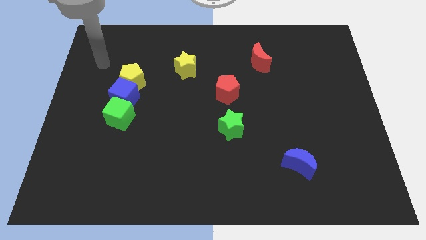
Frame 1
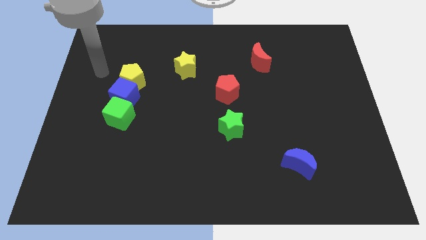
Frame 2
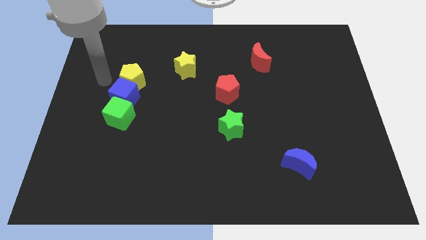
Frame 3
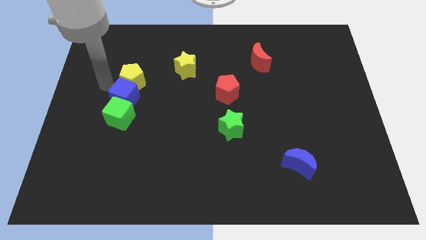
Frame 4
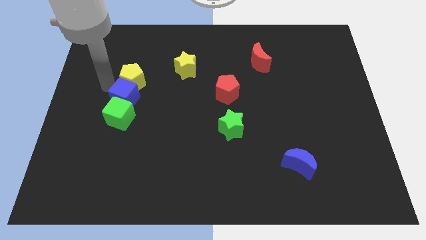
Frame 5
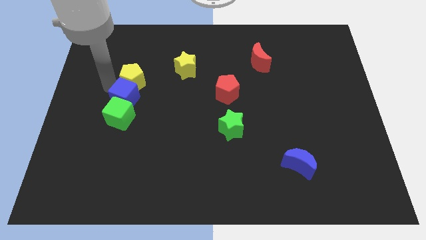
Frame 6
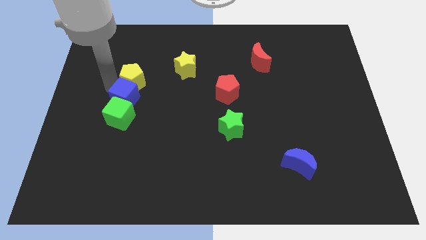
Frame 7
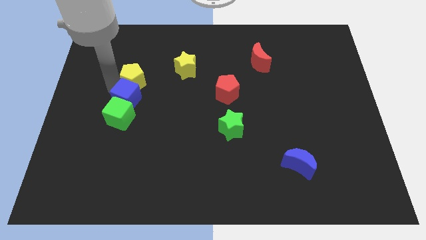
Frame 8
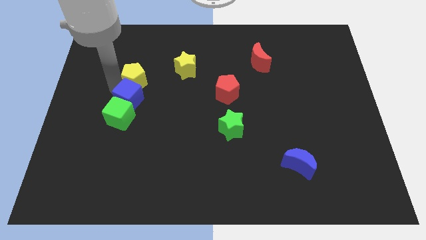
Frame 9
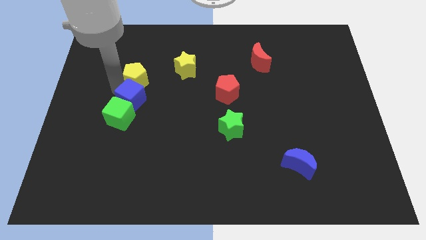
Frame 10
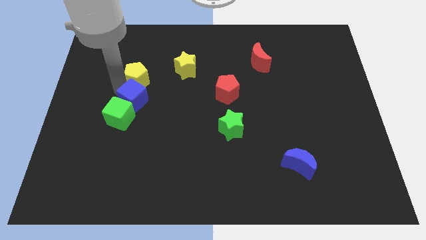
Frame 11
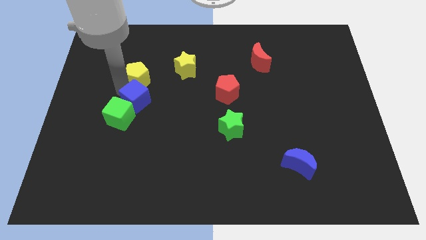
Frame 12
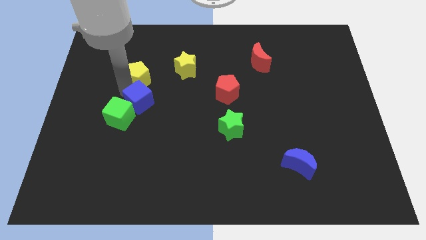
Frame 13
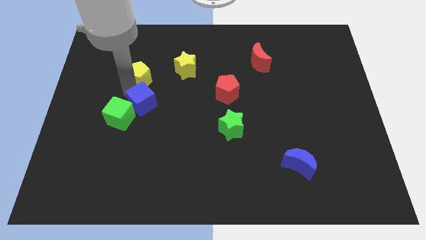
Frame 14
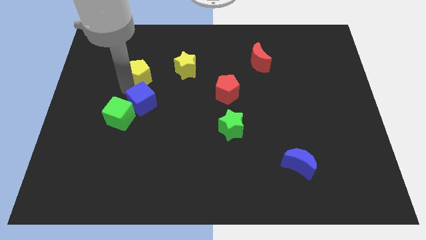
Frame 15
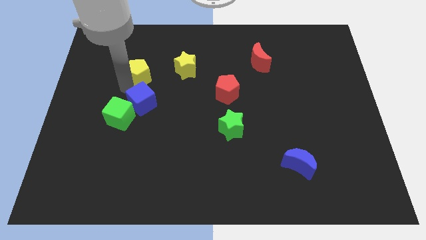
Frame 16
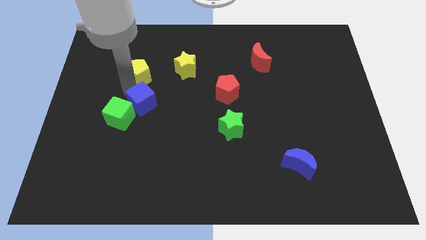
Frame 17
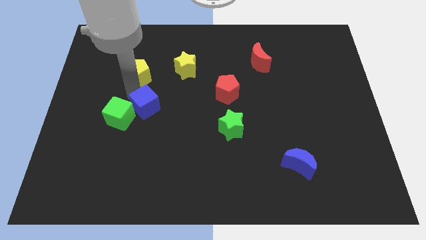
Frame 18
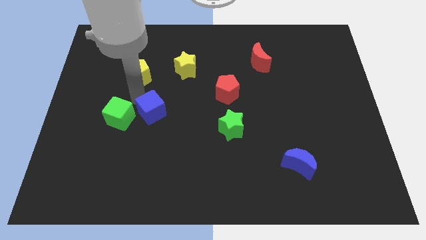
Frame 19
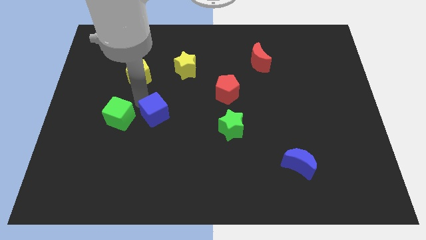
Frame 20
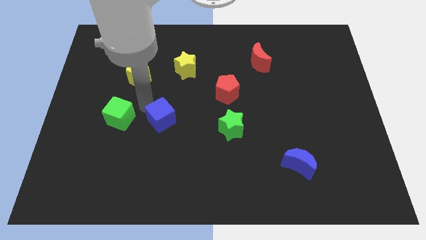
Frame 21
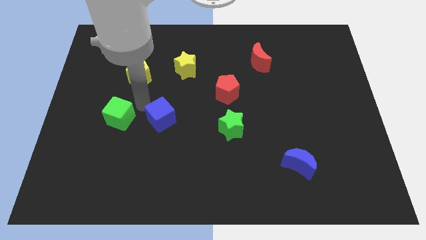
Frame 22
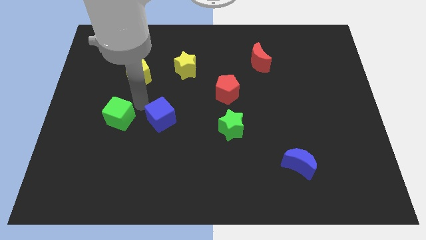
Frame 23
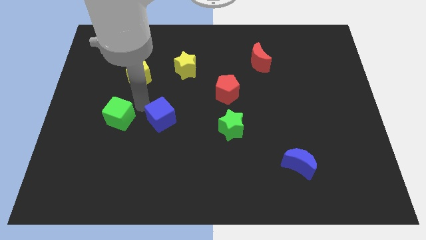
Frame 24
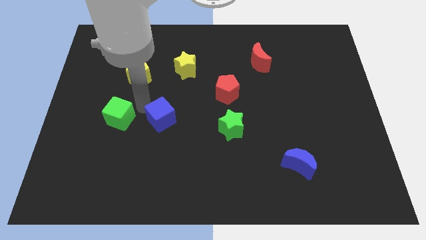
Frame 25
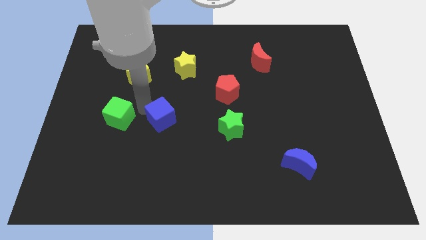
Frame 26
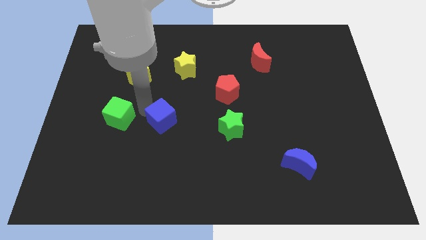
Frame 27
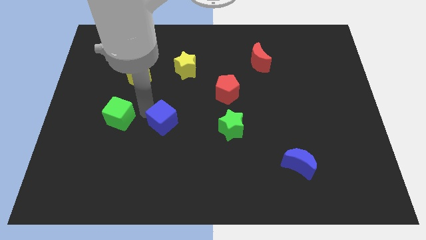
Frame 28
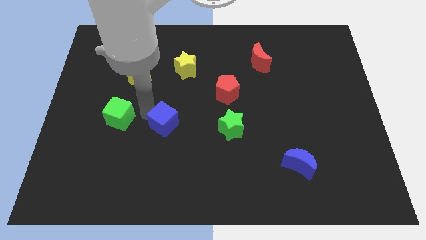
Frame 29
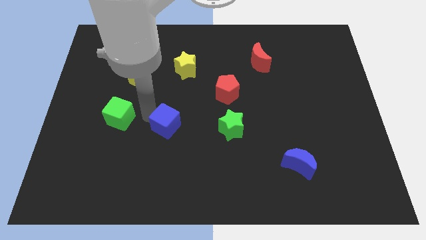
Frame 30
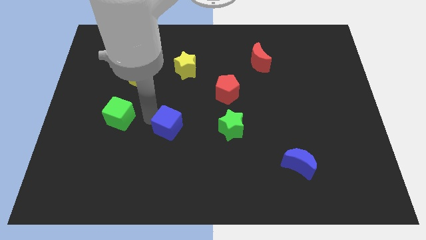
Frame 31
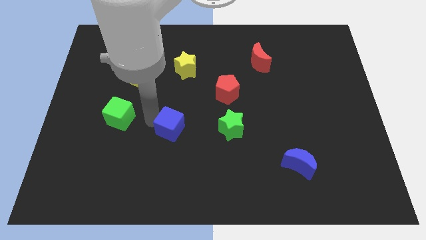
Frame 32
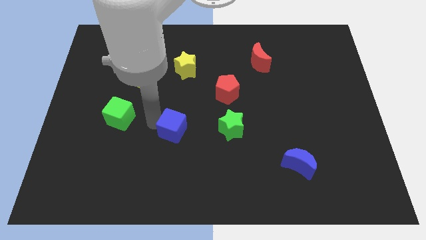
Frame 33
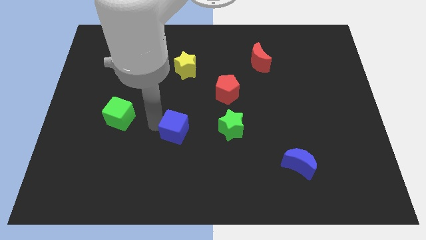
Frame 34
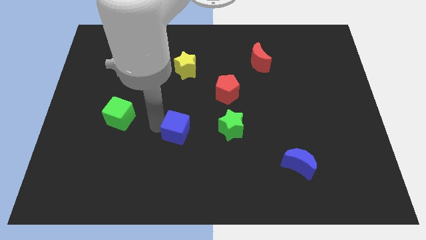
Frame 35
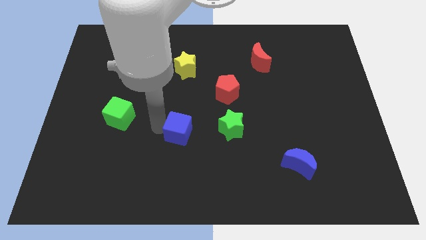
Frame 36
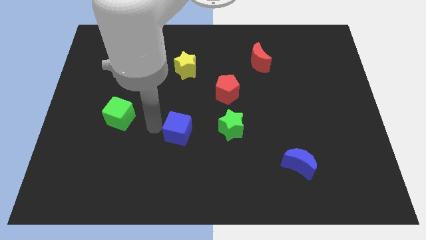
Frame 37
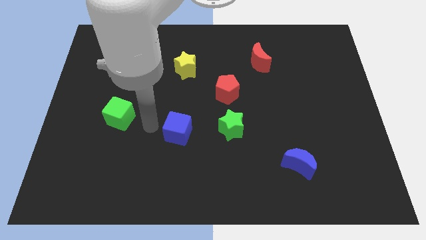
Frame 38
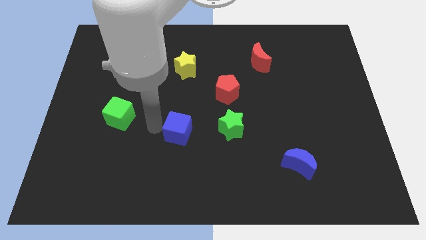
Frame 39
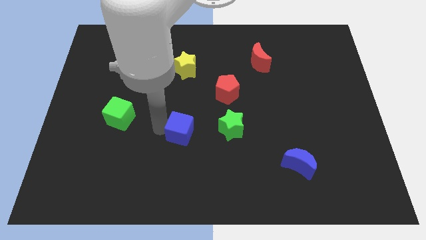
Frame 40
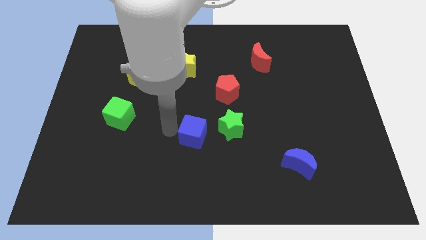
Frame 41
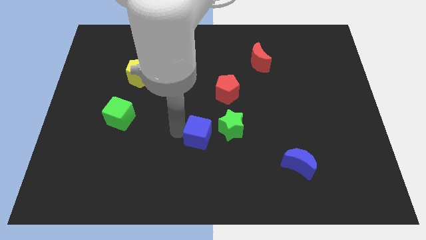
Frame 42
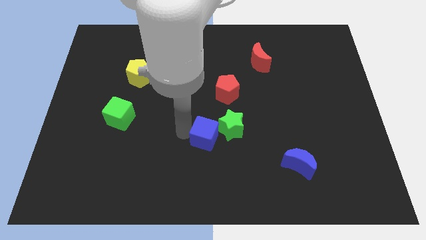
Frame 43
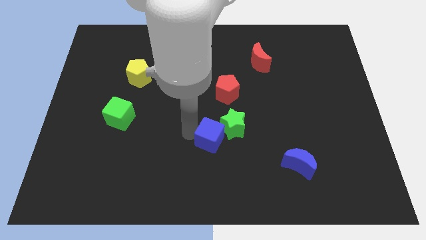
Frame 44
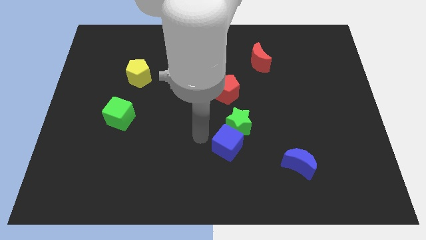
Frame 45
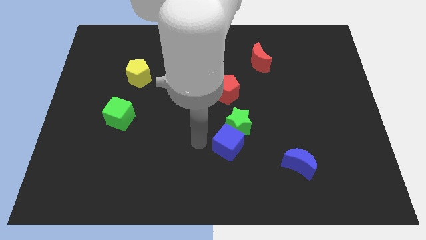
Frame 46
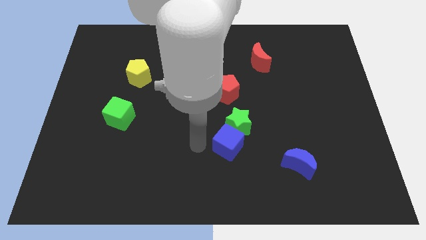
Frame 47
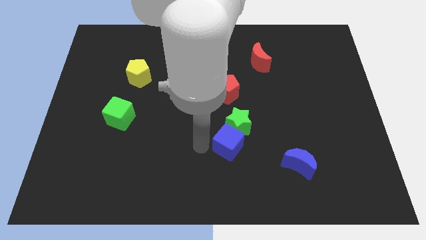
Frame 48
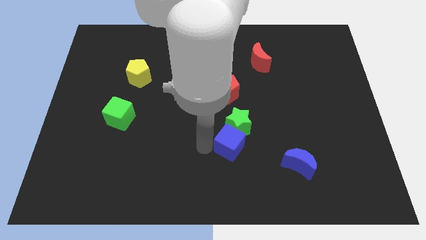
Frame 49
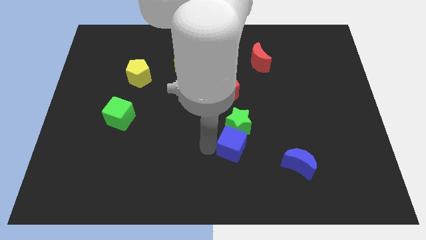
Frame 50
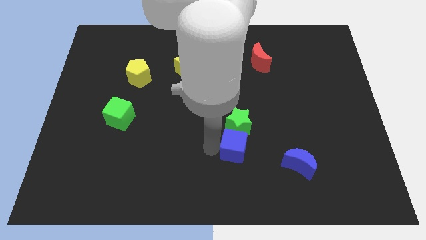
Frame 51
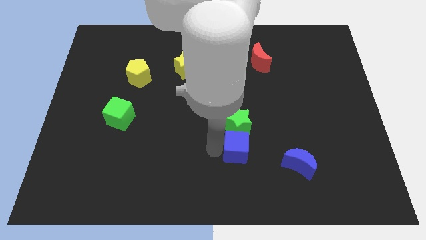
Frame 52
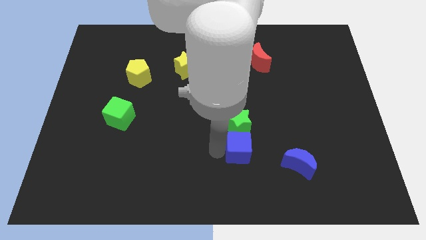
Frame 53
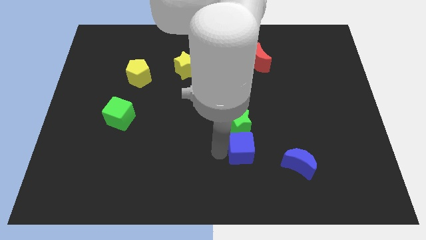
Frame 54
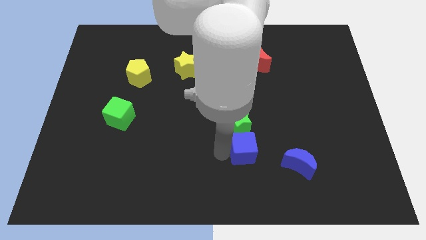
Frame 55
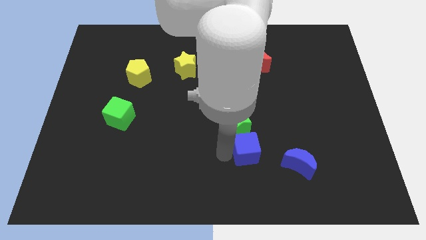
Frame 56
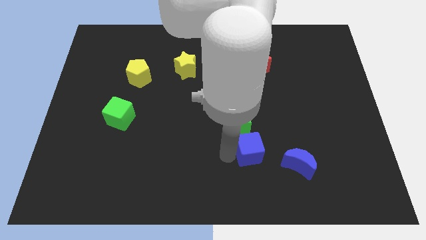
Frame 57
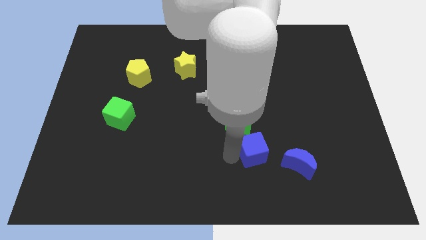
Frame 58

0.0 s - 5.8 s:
move the blue cube to the top left side of the blue moon

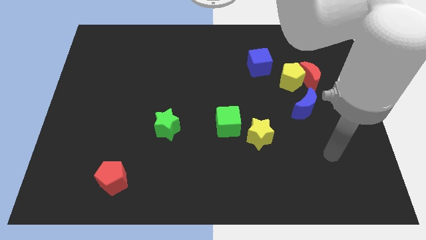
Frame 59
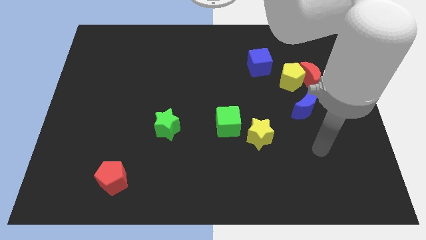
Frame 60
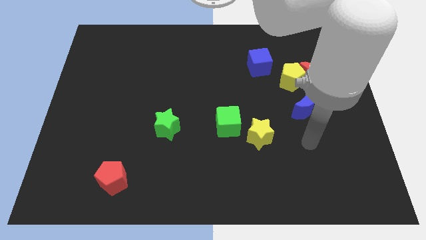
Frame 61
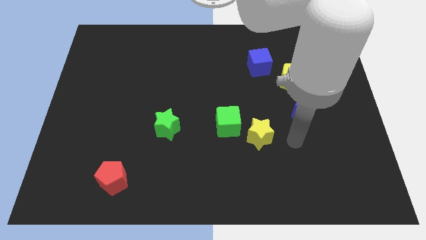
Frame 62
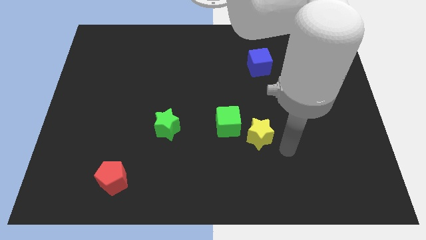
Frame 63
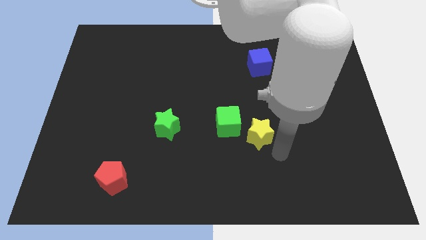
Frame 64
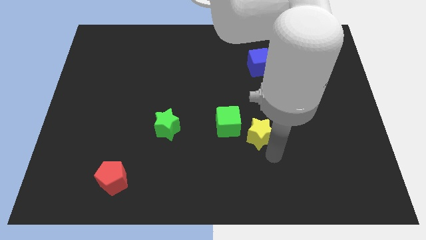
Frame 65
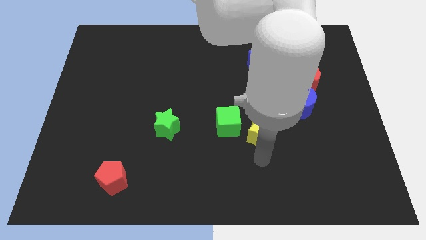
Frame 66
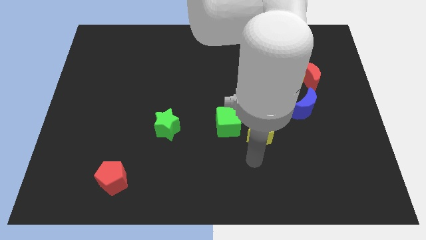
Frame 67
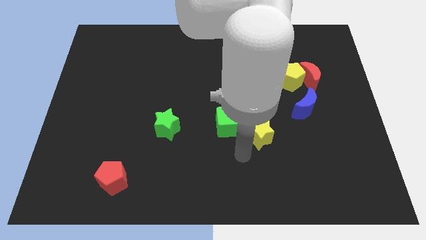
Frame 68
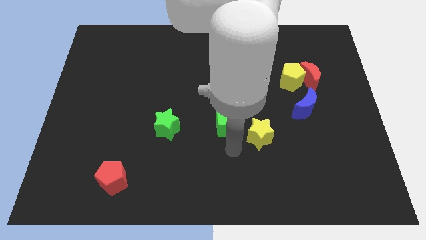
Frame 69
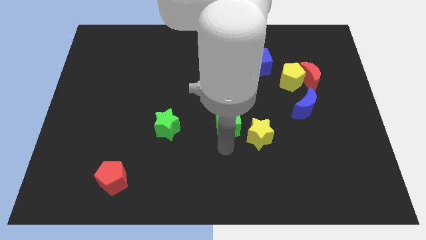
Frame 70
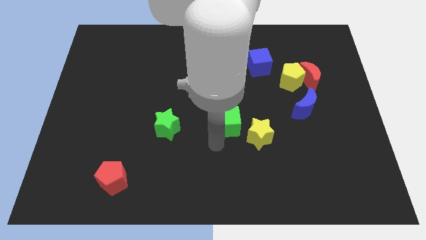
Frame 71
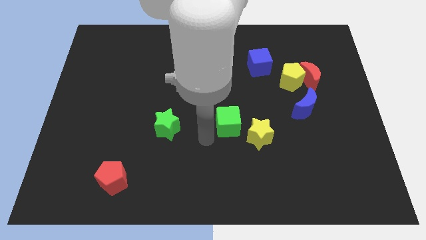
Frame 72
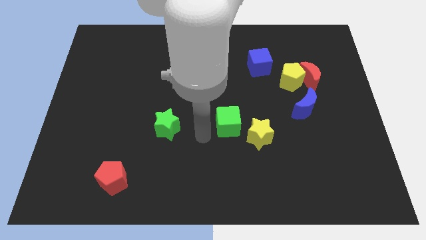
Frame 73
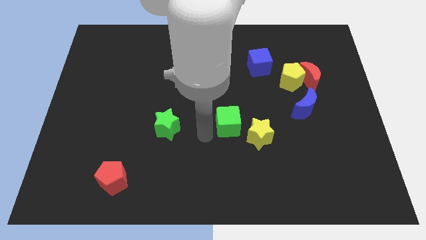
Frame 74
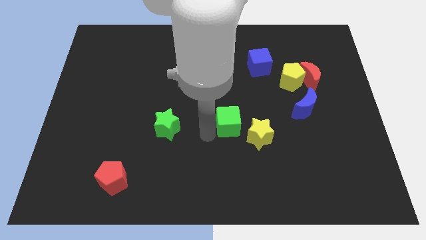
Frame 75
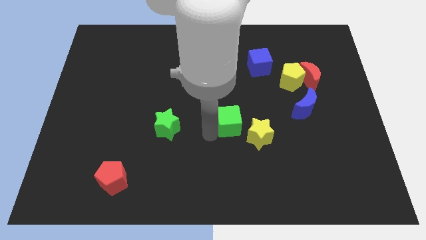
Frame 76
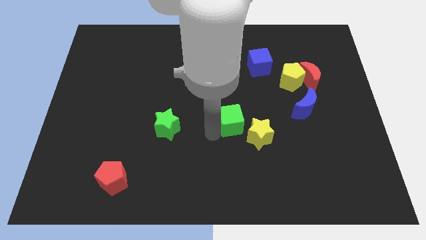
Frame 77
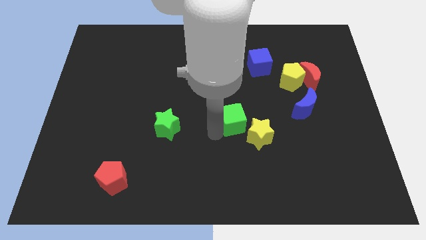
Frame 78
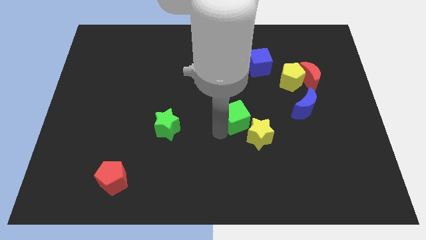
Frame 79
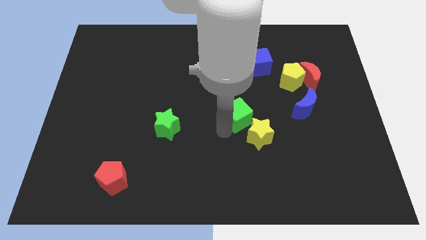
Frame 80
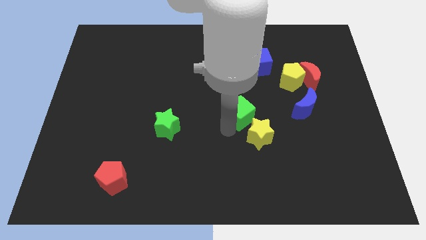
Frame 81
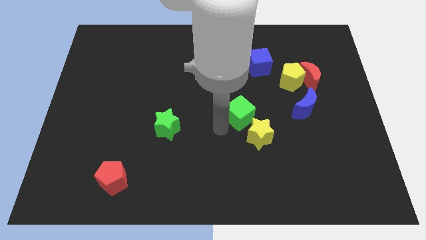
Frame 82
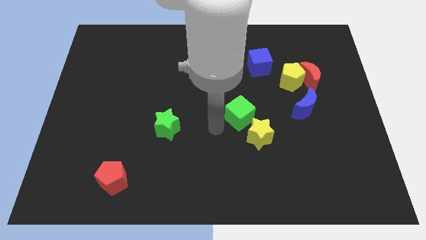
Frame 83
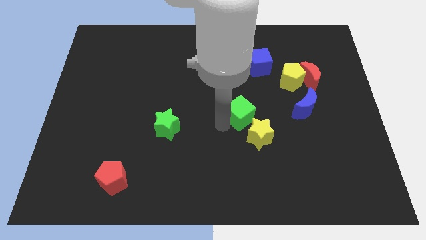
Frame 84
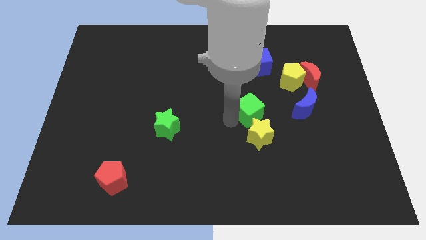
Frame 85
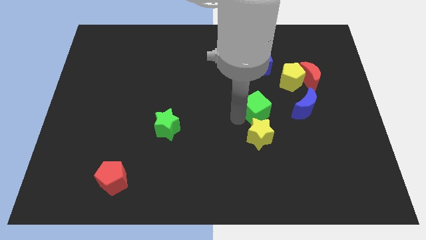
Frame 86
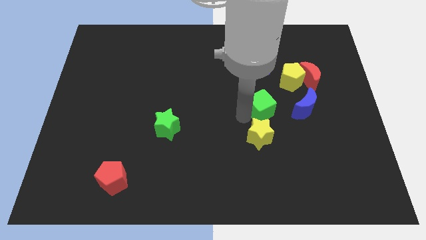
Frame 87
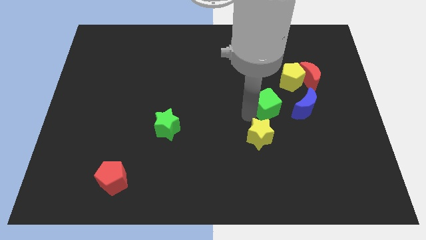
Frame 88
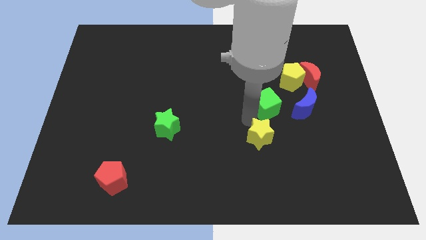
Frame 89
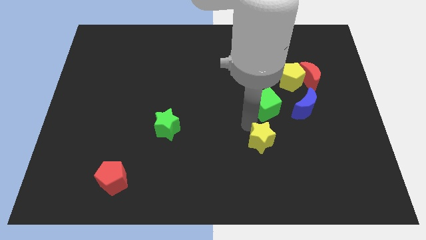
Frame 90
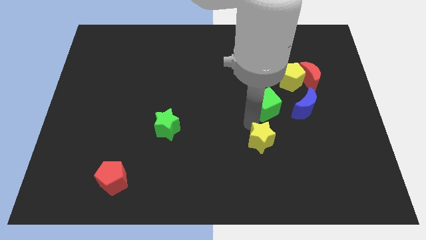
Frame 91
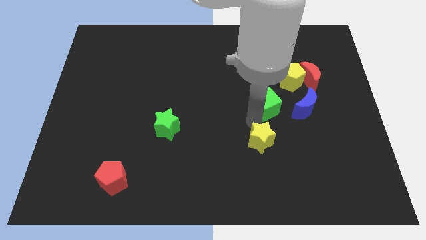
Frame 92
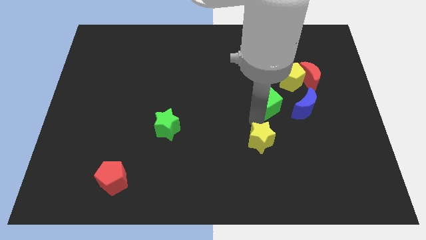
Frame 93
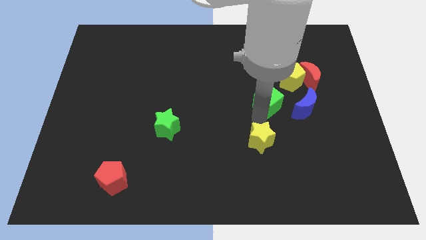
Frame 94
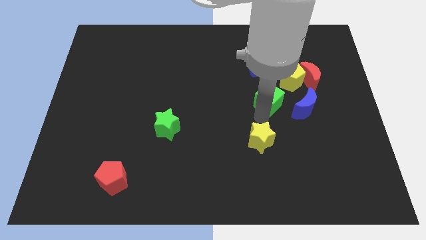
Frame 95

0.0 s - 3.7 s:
put the green cube to the top left of the blue moon
